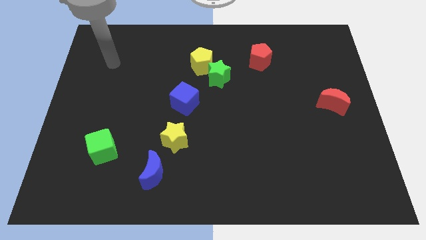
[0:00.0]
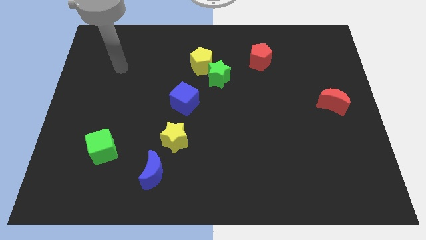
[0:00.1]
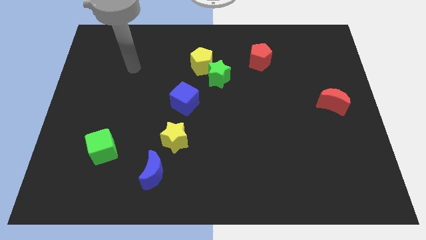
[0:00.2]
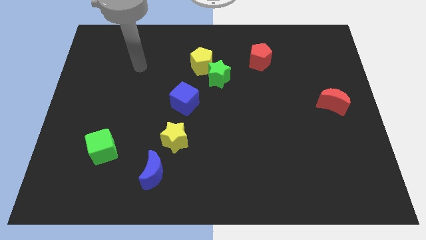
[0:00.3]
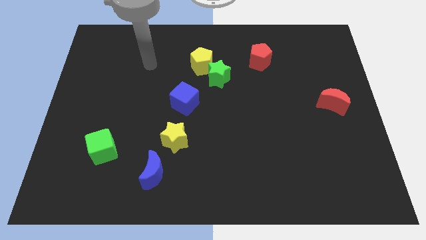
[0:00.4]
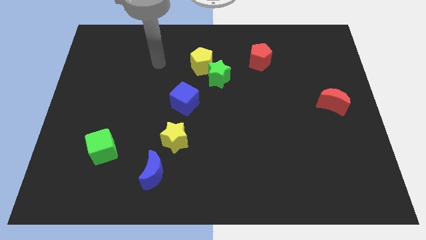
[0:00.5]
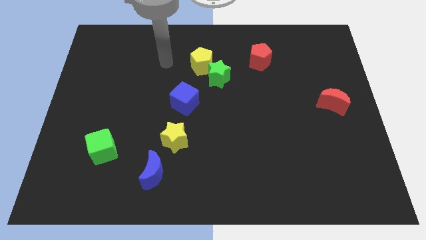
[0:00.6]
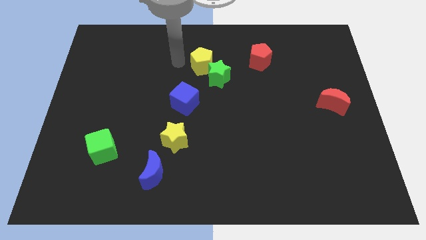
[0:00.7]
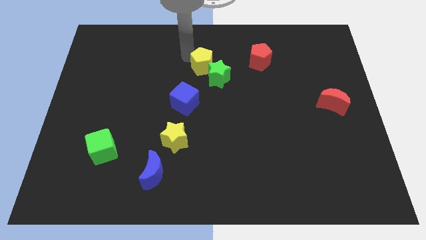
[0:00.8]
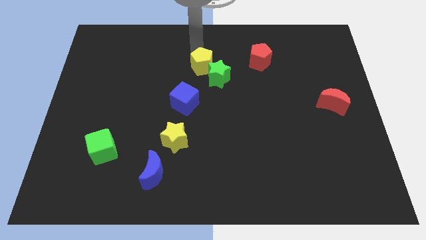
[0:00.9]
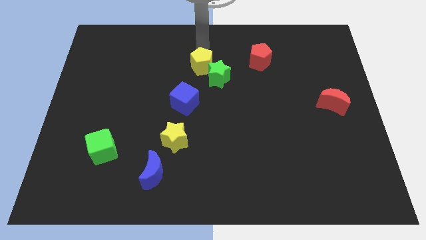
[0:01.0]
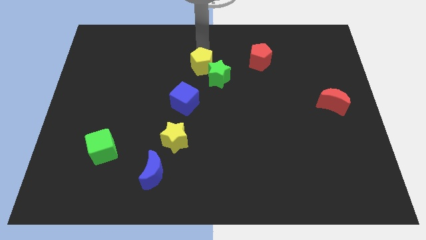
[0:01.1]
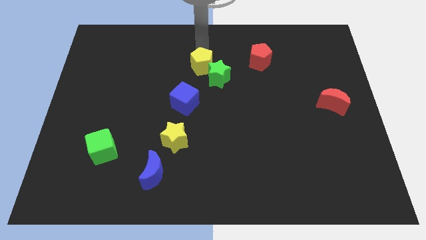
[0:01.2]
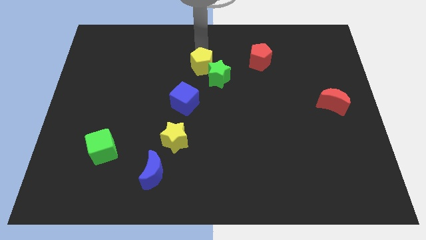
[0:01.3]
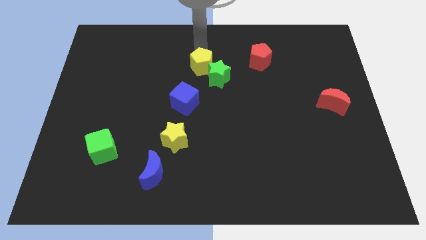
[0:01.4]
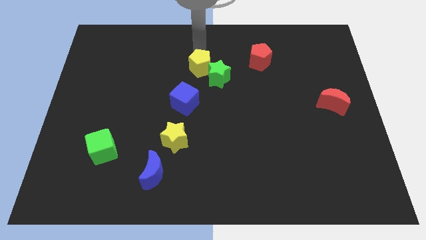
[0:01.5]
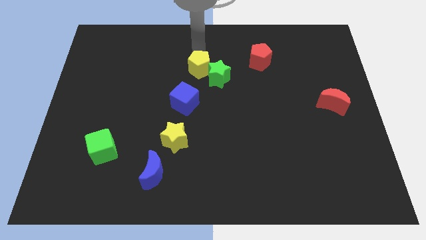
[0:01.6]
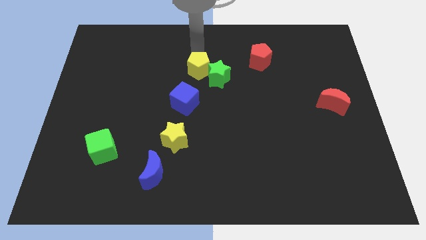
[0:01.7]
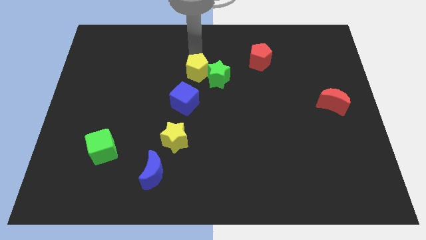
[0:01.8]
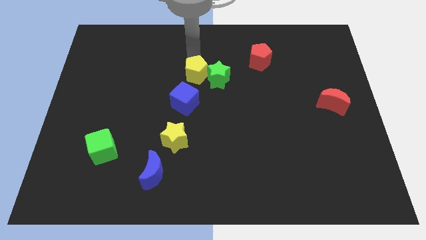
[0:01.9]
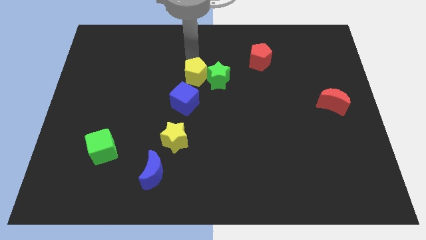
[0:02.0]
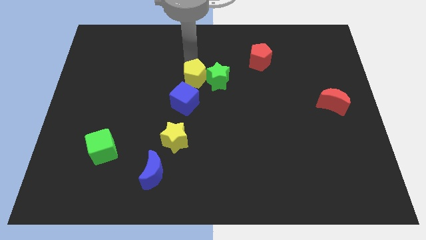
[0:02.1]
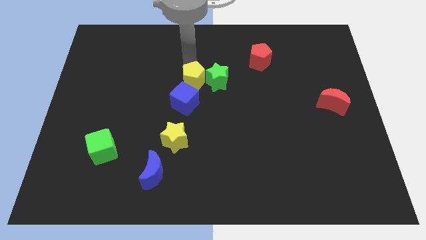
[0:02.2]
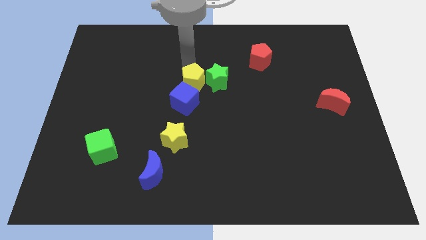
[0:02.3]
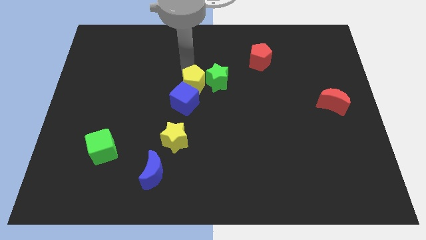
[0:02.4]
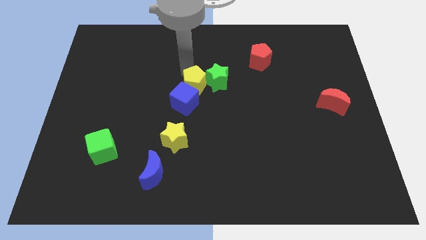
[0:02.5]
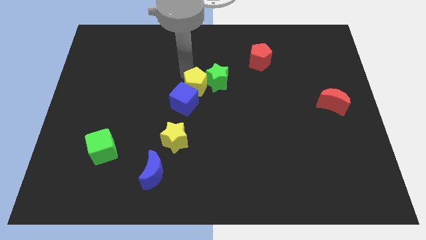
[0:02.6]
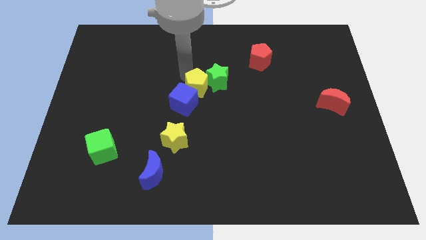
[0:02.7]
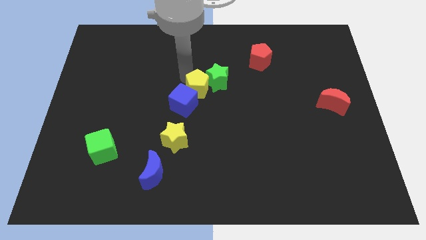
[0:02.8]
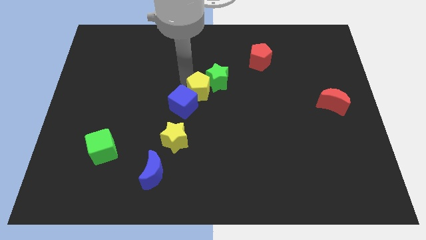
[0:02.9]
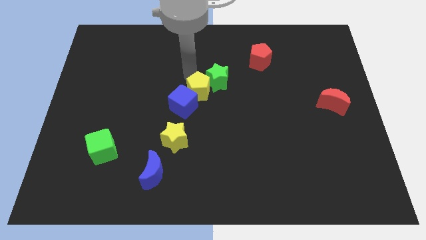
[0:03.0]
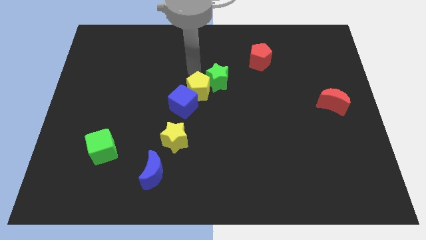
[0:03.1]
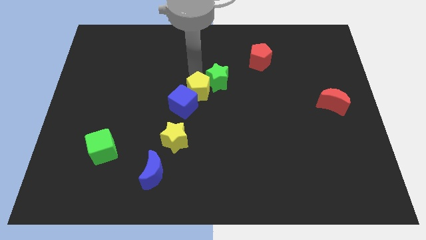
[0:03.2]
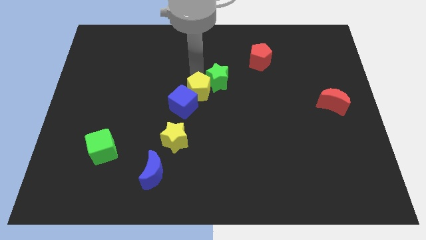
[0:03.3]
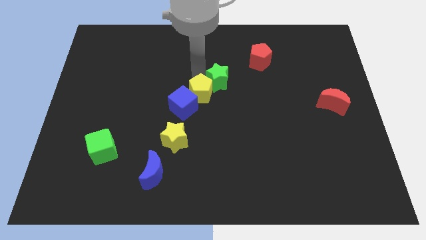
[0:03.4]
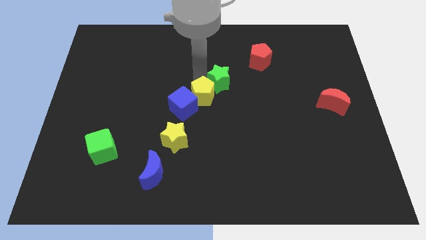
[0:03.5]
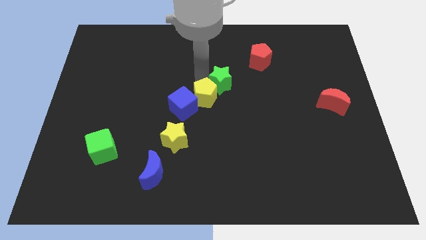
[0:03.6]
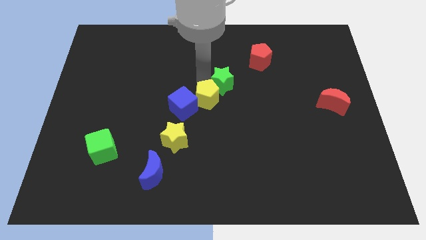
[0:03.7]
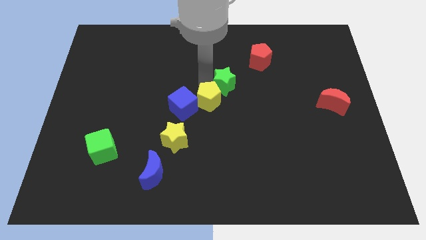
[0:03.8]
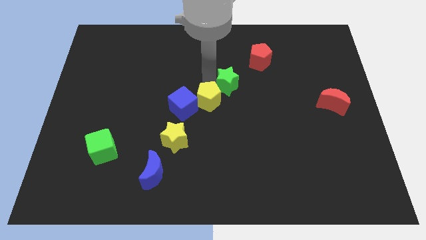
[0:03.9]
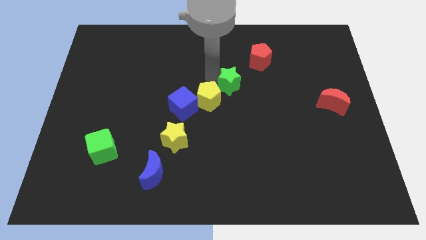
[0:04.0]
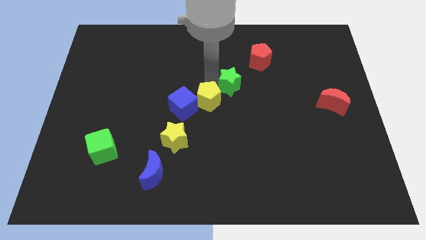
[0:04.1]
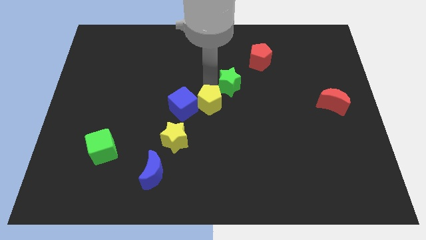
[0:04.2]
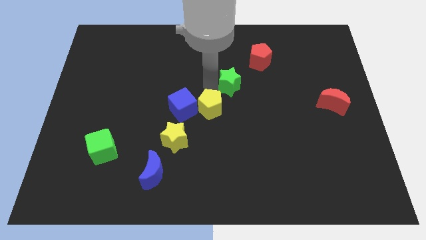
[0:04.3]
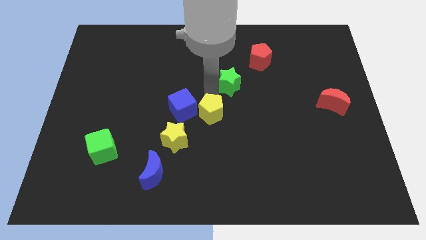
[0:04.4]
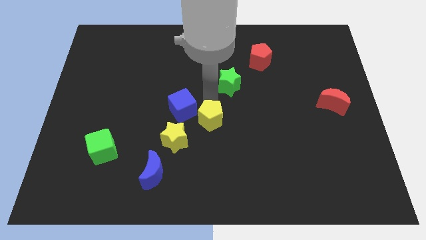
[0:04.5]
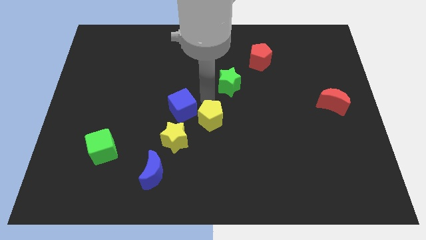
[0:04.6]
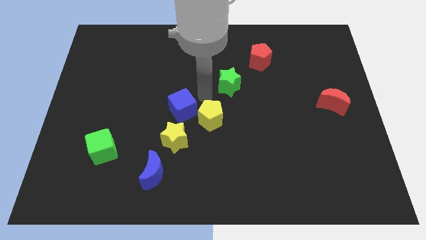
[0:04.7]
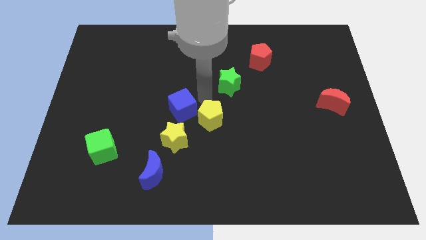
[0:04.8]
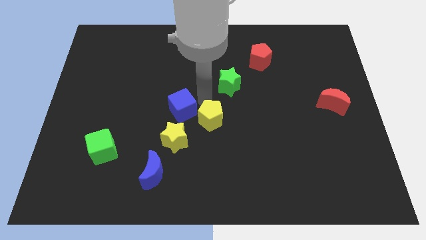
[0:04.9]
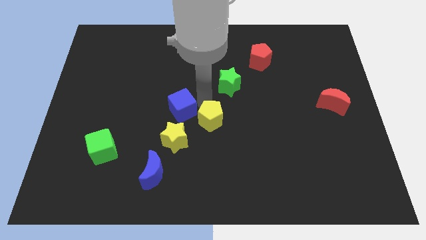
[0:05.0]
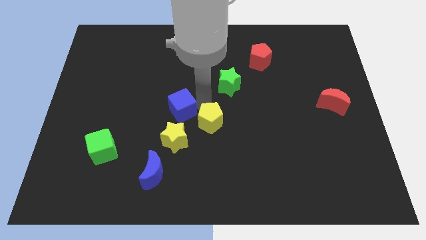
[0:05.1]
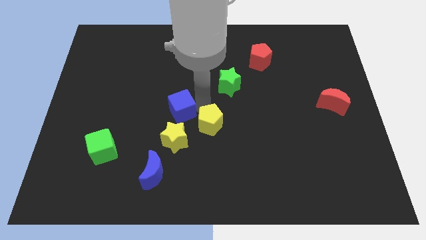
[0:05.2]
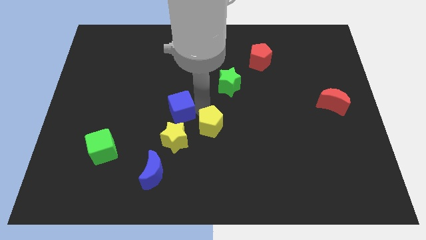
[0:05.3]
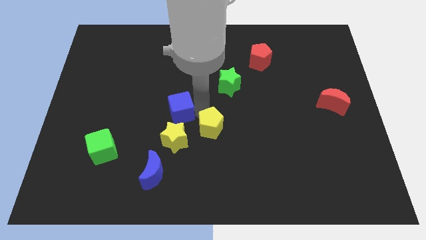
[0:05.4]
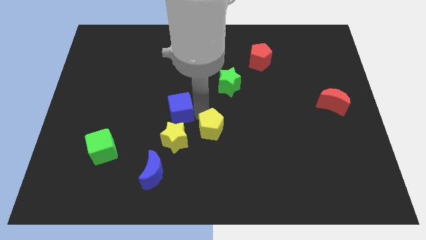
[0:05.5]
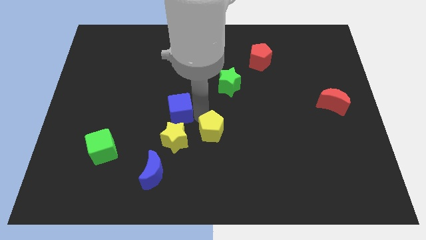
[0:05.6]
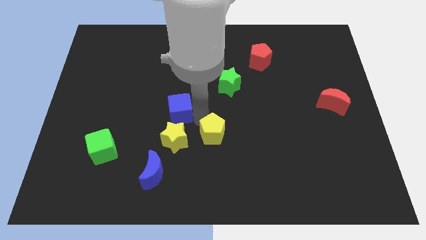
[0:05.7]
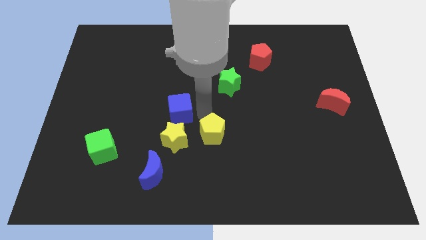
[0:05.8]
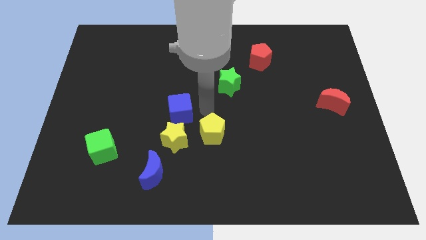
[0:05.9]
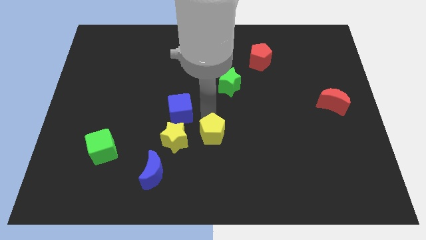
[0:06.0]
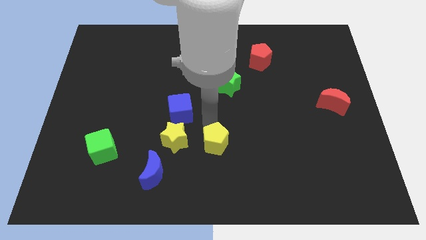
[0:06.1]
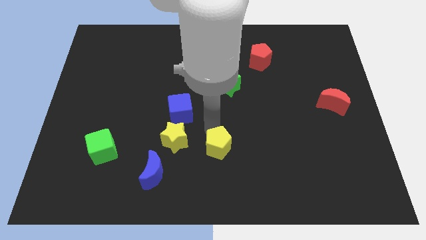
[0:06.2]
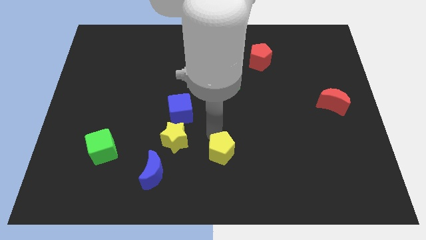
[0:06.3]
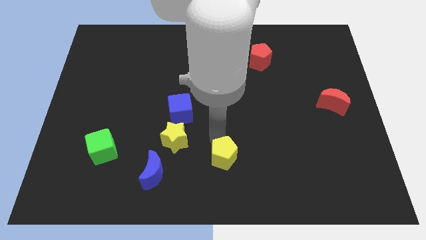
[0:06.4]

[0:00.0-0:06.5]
move the yellow pentagon to the bottom side

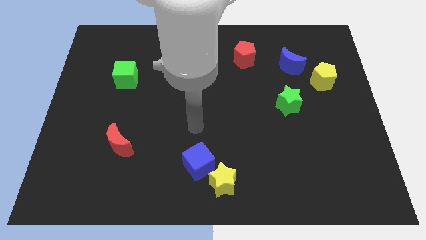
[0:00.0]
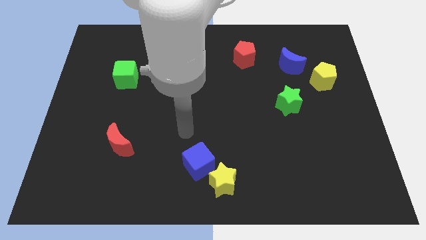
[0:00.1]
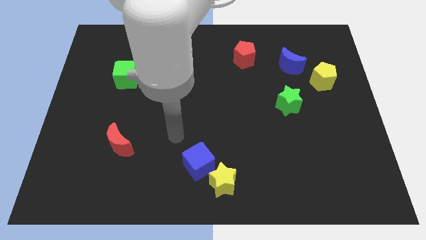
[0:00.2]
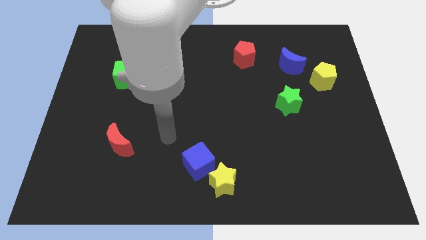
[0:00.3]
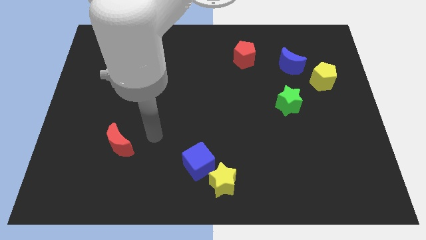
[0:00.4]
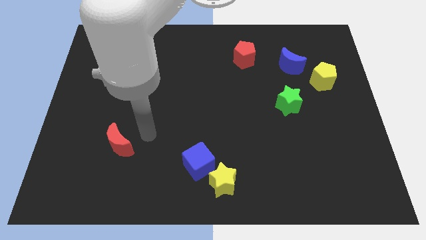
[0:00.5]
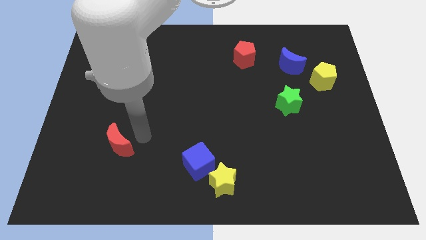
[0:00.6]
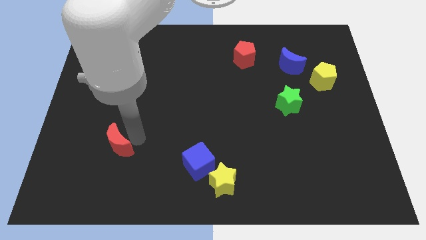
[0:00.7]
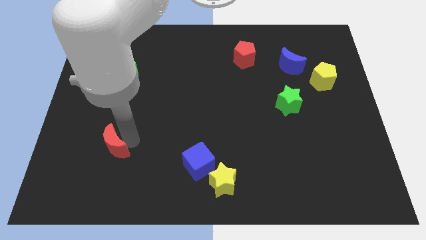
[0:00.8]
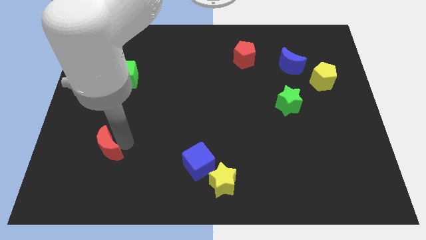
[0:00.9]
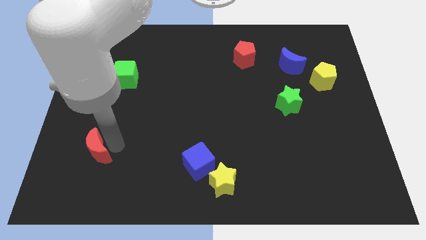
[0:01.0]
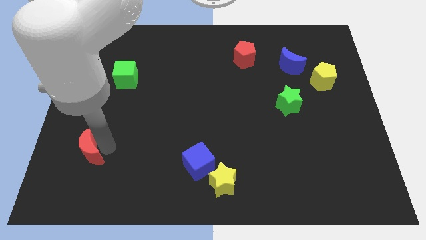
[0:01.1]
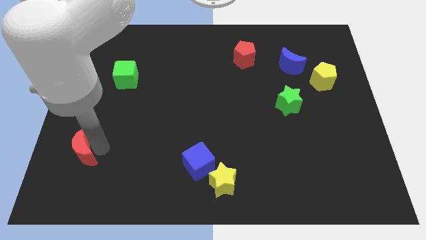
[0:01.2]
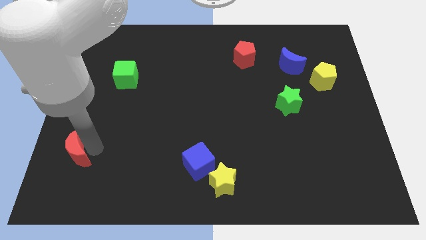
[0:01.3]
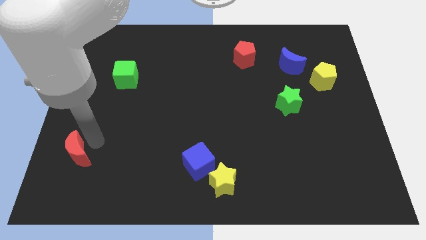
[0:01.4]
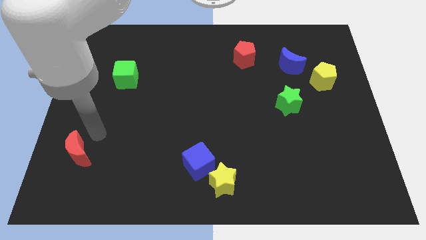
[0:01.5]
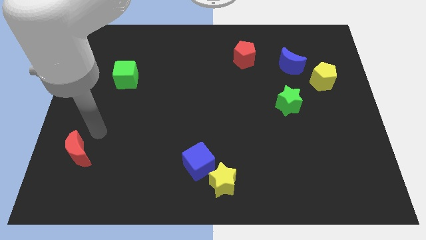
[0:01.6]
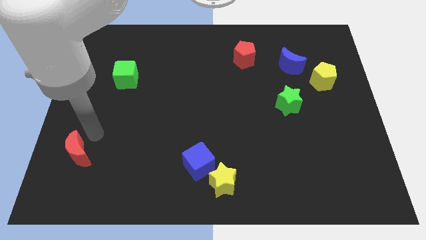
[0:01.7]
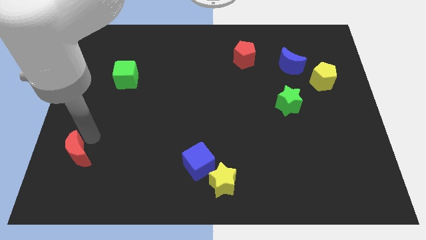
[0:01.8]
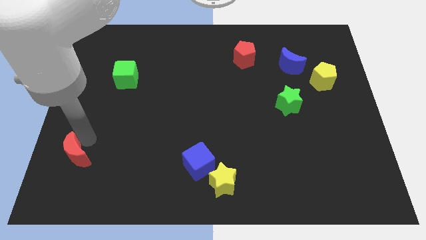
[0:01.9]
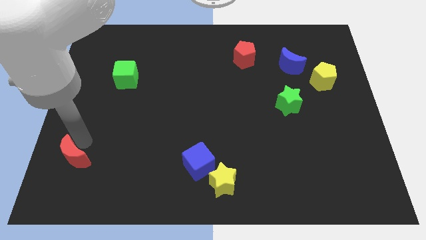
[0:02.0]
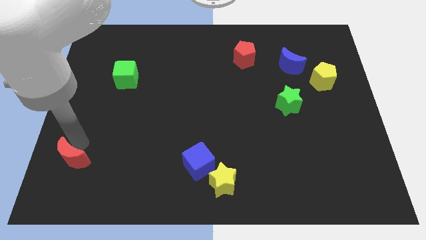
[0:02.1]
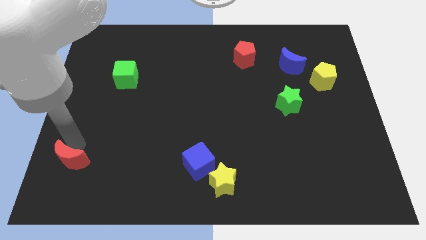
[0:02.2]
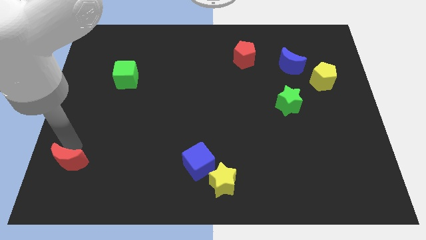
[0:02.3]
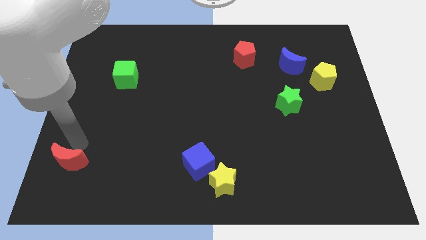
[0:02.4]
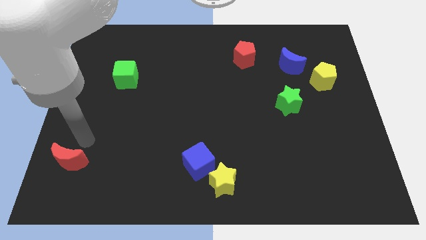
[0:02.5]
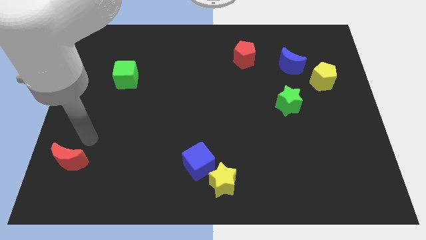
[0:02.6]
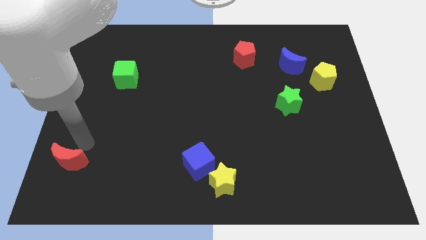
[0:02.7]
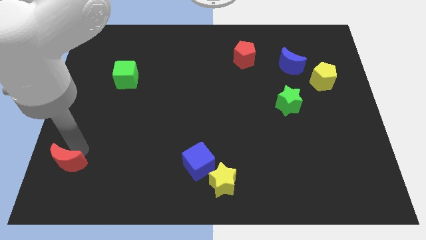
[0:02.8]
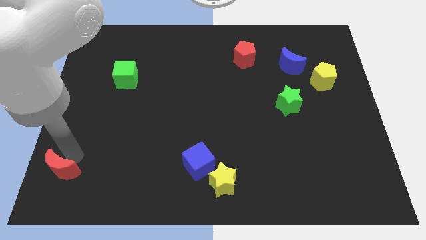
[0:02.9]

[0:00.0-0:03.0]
move the red moon to the bottom left corner
